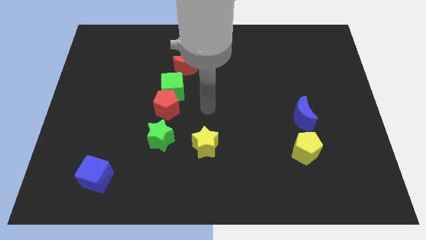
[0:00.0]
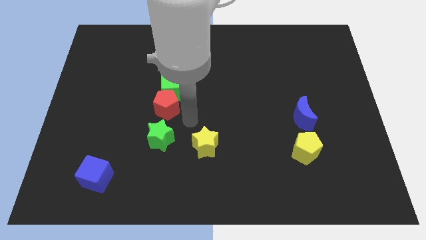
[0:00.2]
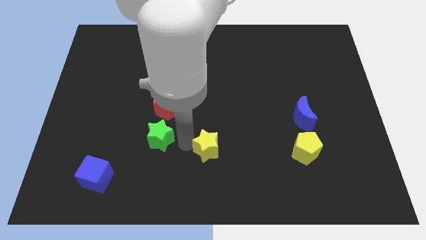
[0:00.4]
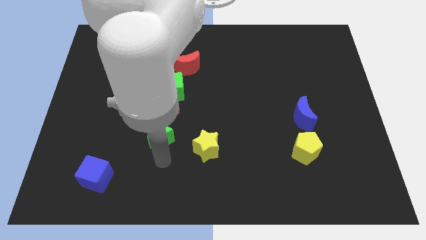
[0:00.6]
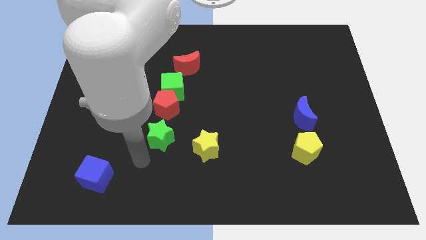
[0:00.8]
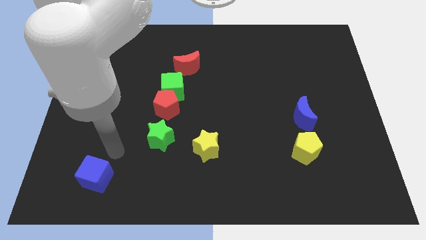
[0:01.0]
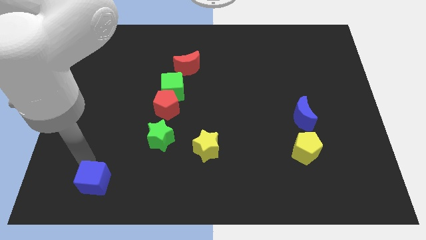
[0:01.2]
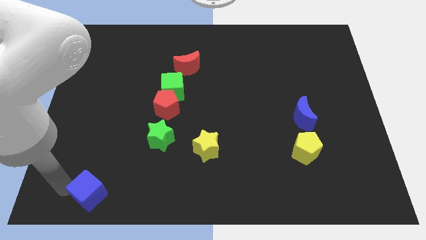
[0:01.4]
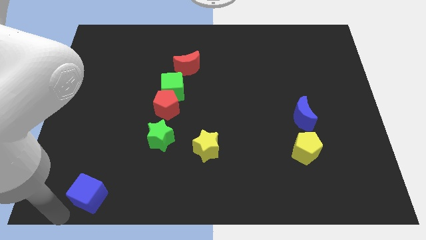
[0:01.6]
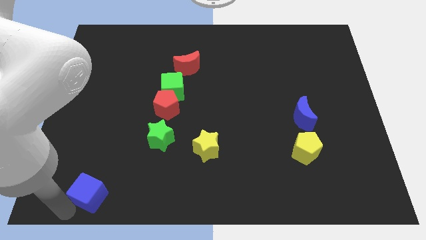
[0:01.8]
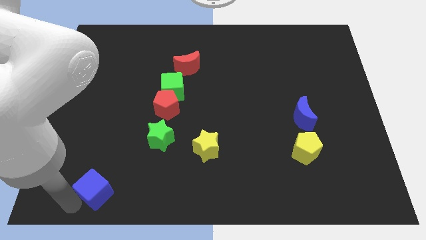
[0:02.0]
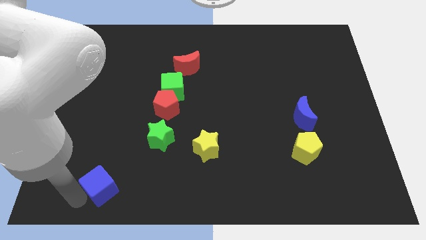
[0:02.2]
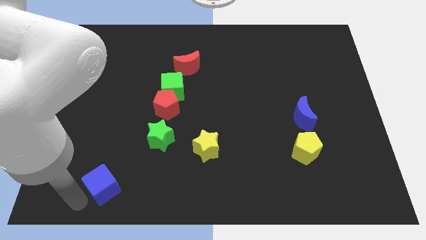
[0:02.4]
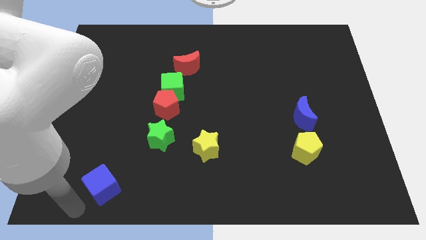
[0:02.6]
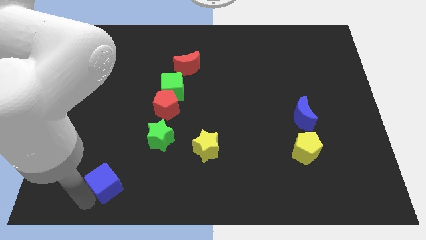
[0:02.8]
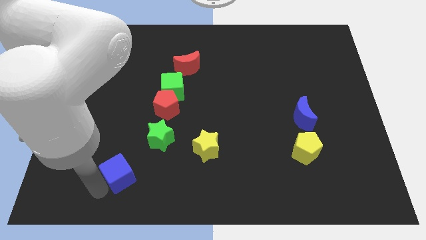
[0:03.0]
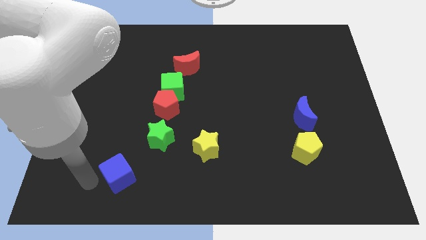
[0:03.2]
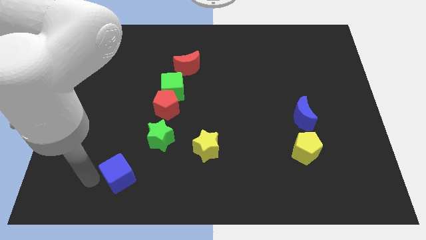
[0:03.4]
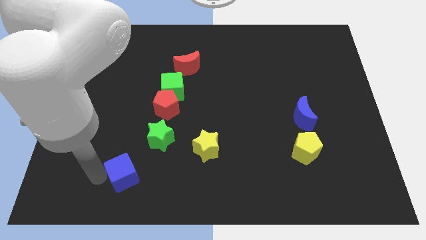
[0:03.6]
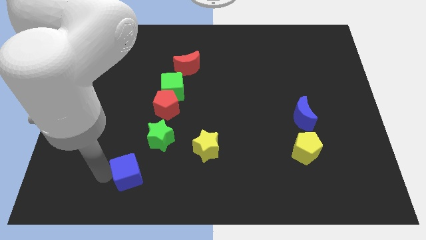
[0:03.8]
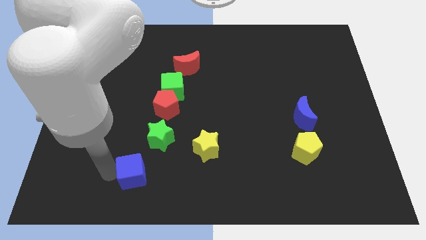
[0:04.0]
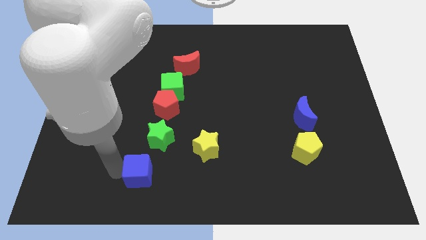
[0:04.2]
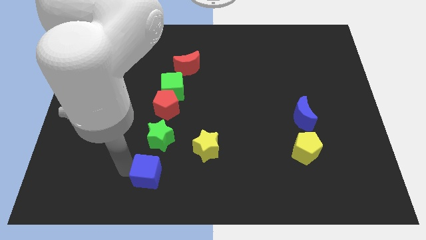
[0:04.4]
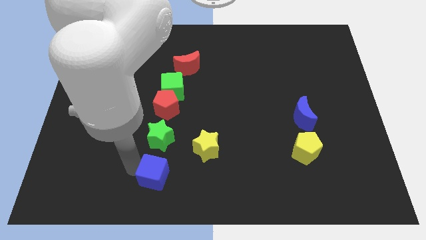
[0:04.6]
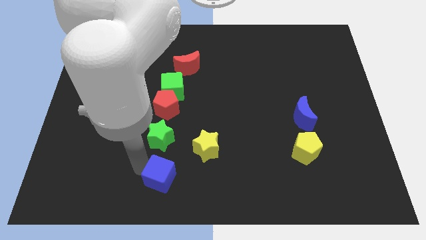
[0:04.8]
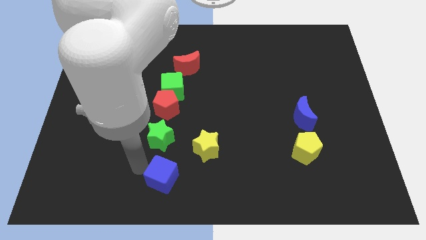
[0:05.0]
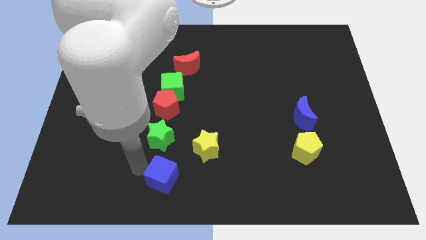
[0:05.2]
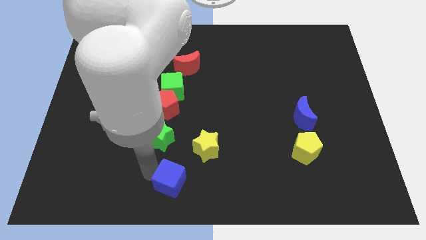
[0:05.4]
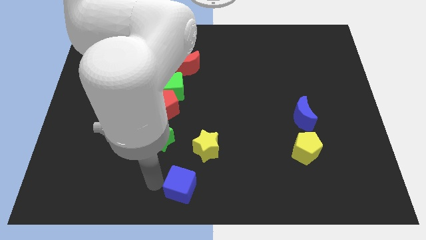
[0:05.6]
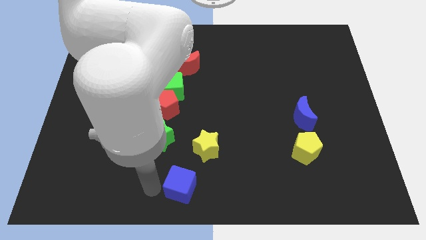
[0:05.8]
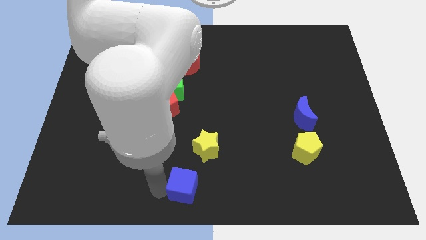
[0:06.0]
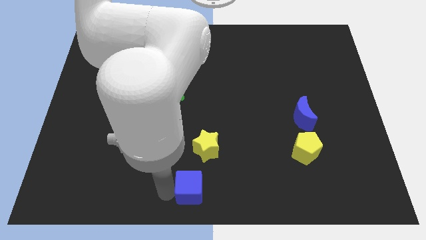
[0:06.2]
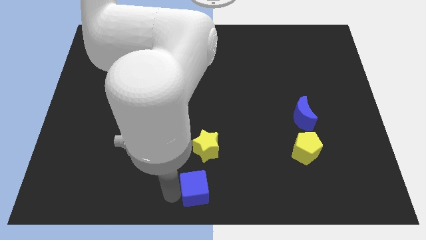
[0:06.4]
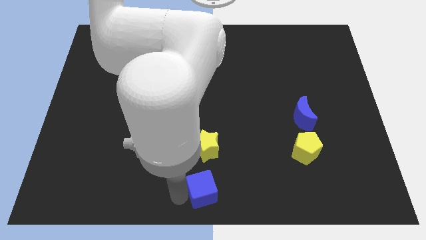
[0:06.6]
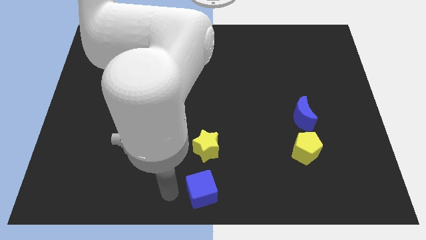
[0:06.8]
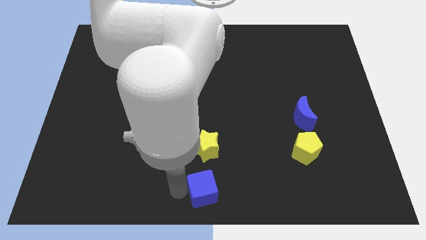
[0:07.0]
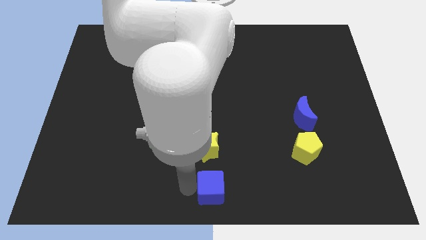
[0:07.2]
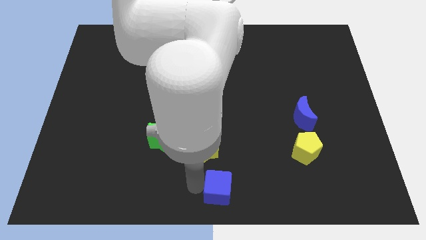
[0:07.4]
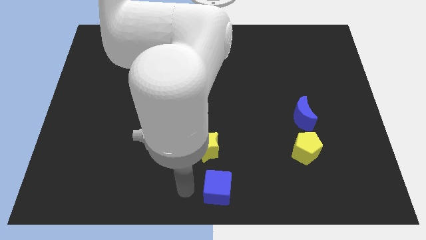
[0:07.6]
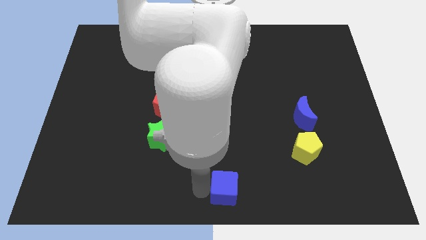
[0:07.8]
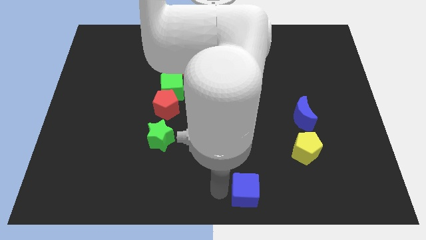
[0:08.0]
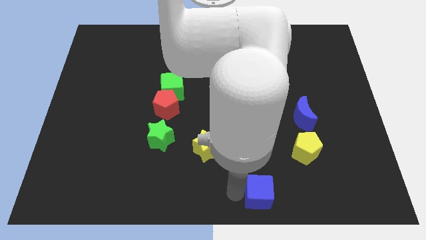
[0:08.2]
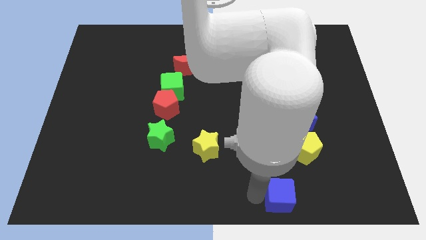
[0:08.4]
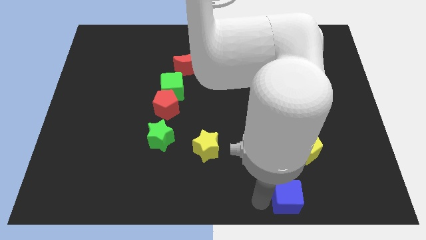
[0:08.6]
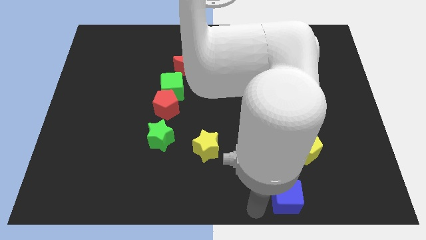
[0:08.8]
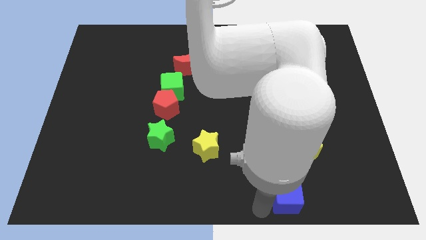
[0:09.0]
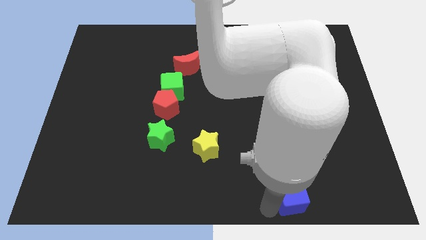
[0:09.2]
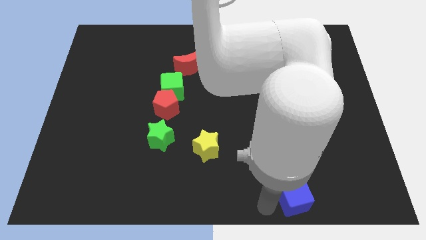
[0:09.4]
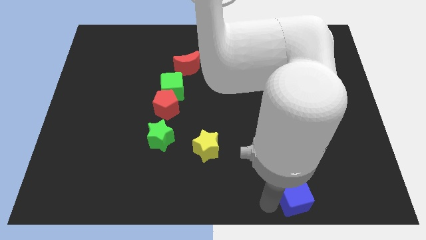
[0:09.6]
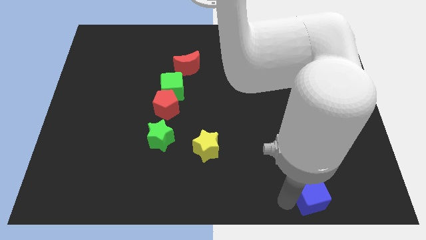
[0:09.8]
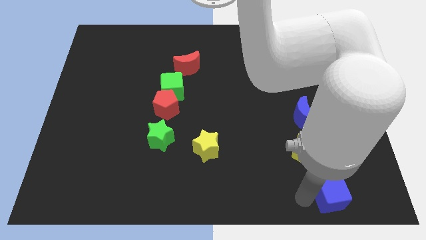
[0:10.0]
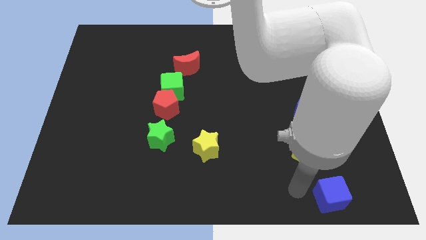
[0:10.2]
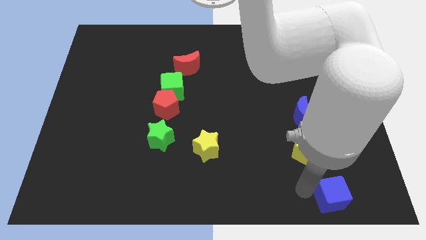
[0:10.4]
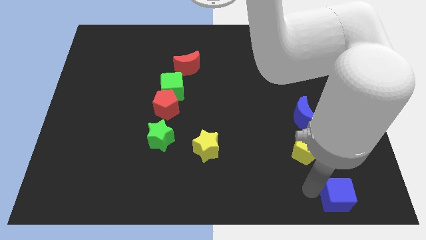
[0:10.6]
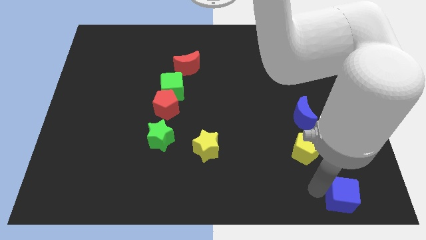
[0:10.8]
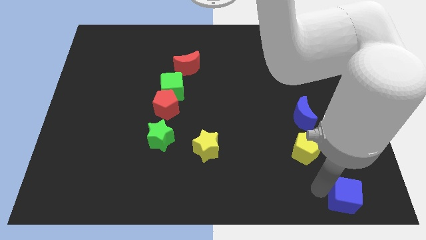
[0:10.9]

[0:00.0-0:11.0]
move the blue cube to the lower right corner

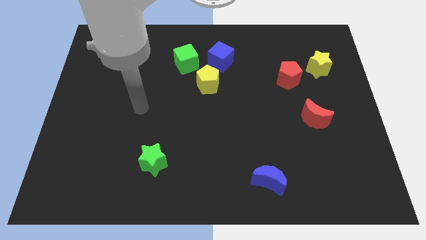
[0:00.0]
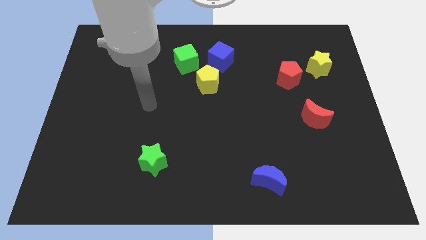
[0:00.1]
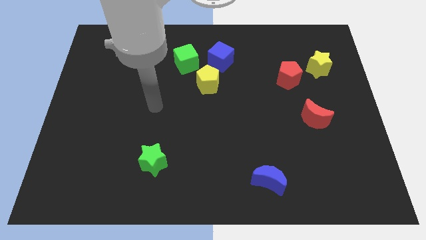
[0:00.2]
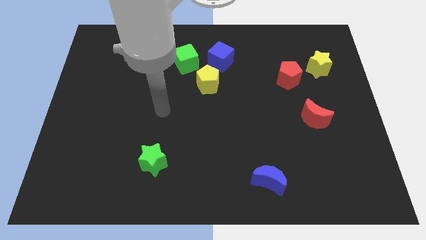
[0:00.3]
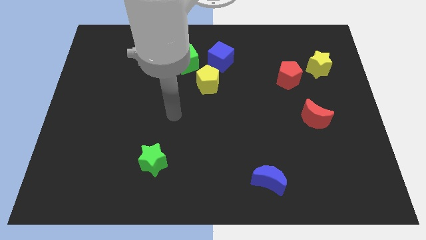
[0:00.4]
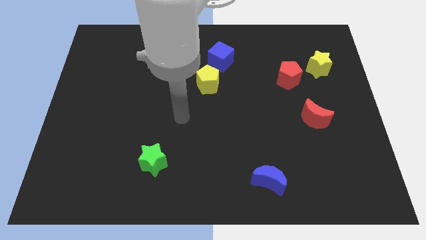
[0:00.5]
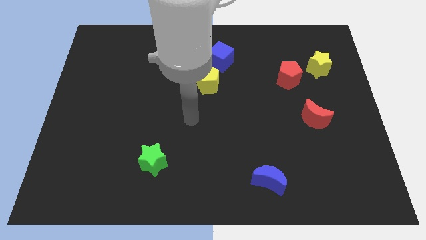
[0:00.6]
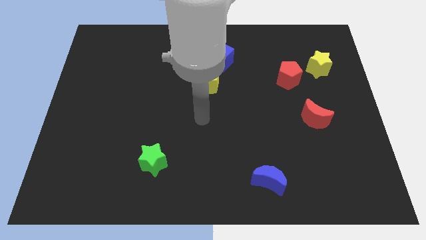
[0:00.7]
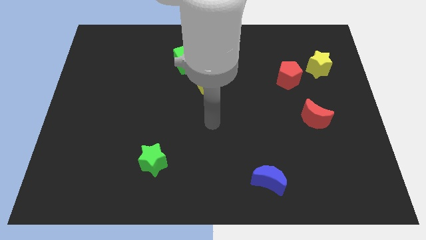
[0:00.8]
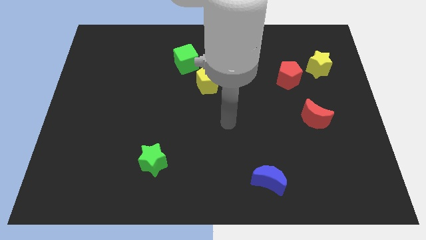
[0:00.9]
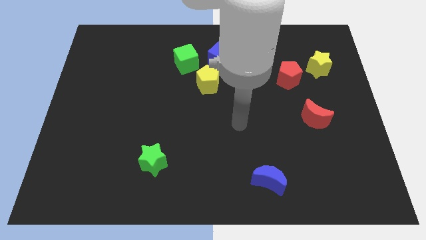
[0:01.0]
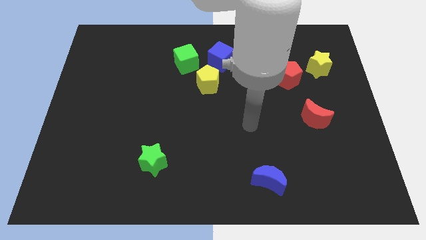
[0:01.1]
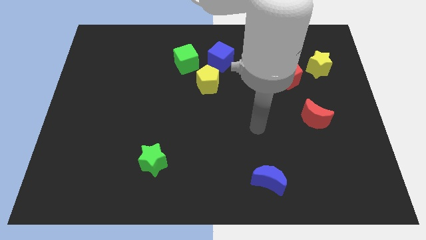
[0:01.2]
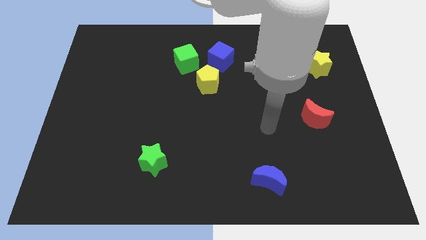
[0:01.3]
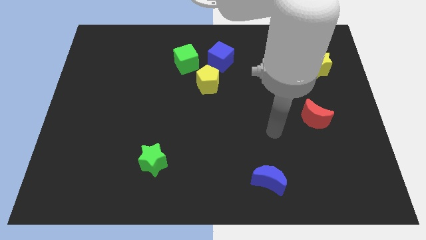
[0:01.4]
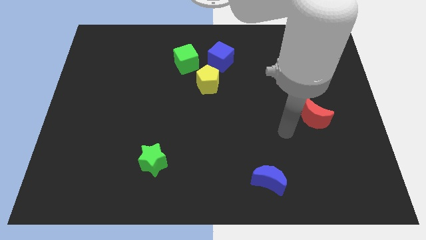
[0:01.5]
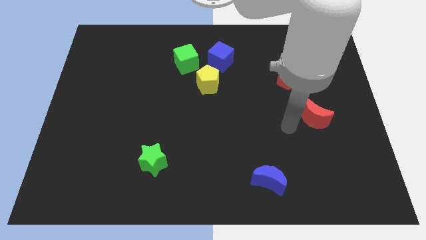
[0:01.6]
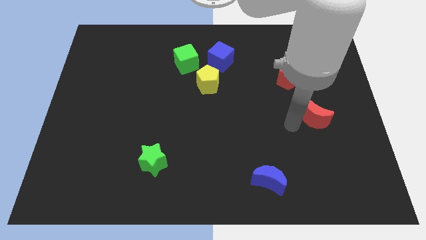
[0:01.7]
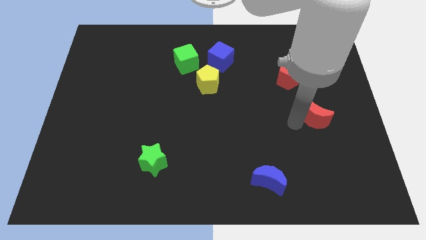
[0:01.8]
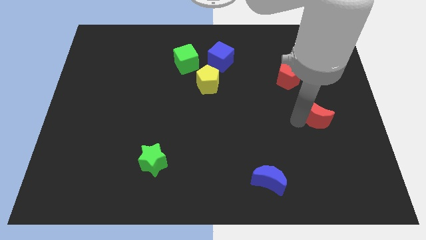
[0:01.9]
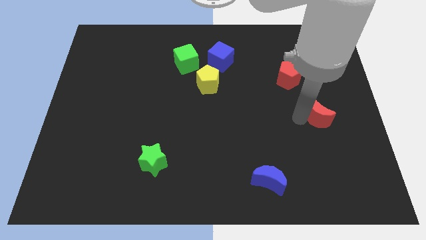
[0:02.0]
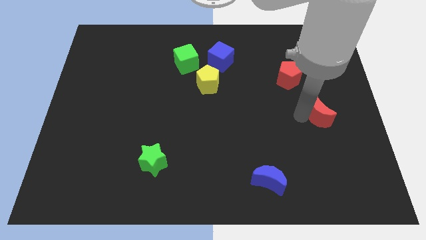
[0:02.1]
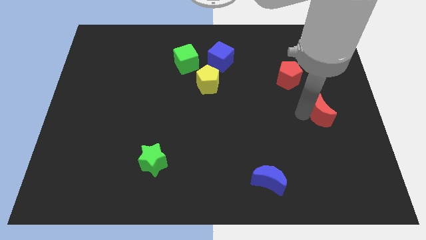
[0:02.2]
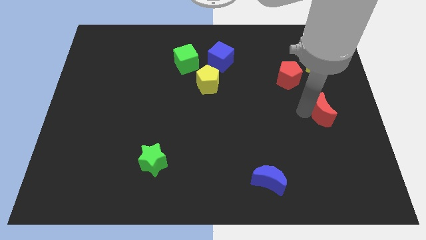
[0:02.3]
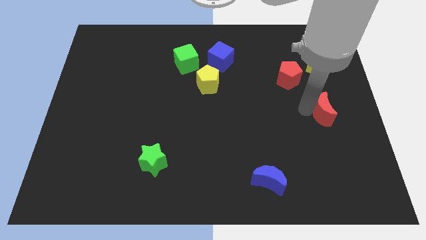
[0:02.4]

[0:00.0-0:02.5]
put the red moon to the right side
